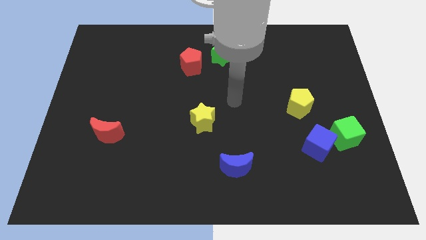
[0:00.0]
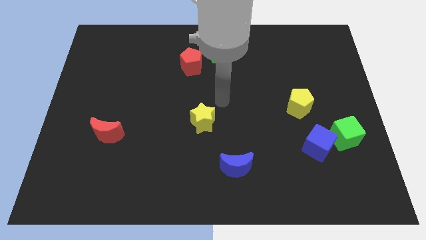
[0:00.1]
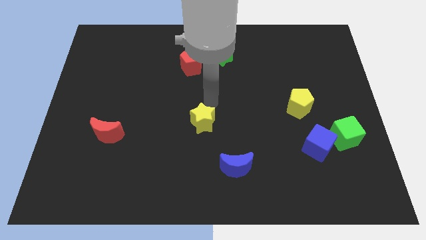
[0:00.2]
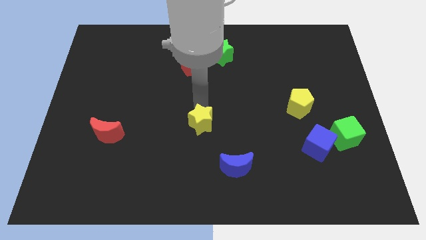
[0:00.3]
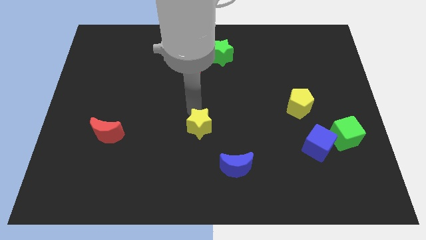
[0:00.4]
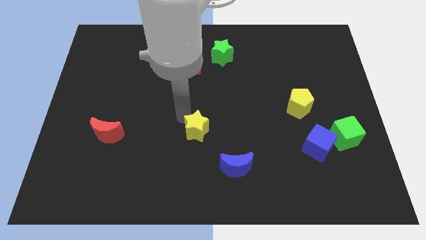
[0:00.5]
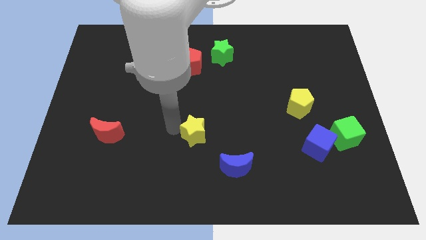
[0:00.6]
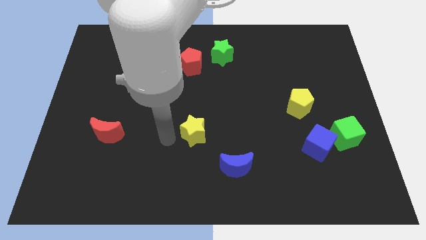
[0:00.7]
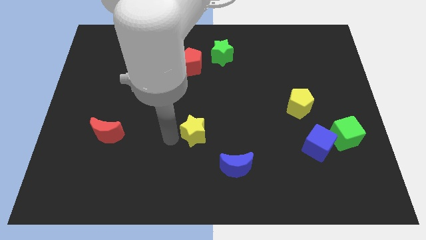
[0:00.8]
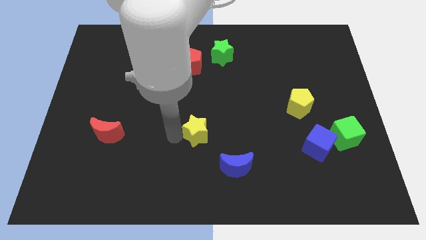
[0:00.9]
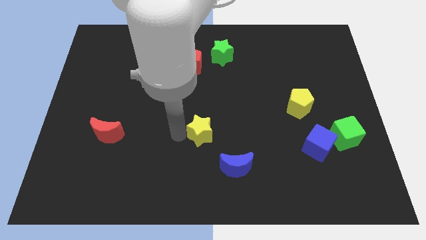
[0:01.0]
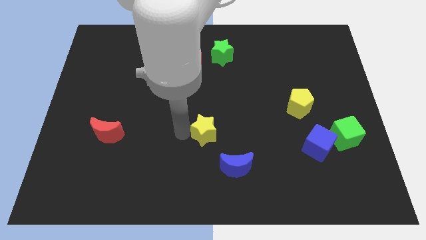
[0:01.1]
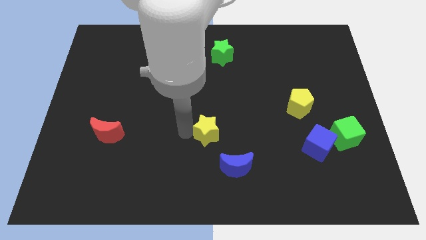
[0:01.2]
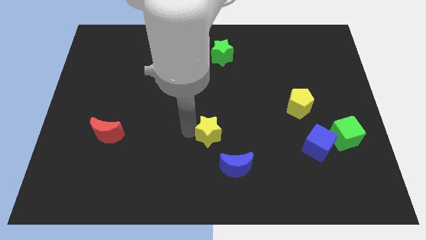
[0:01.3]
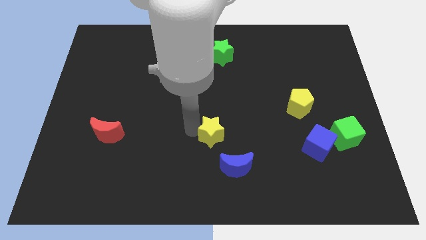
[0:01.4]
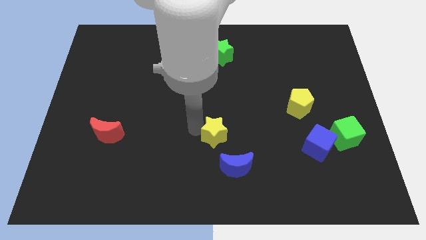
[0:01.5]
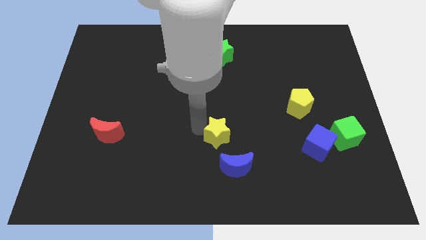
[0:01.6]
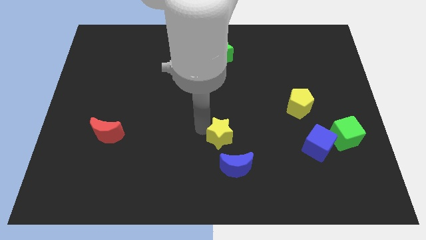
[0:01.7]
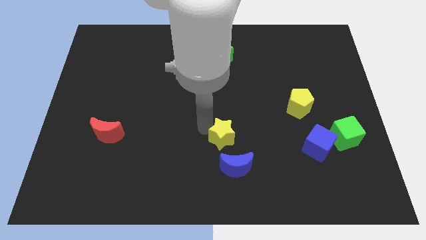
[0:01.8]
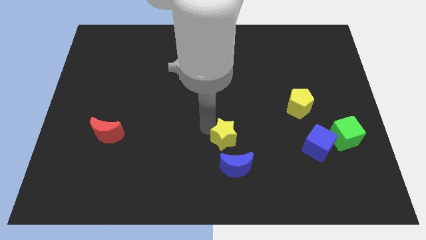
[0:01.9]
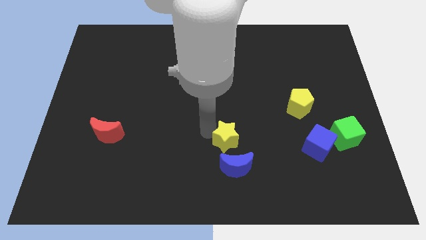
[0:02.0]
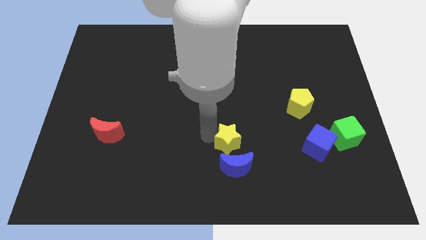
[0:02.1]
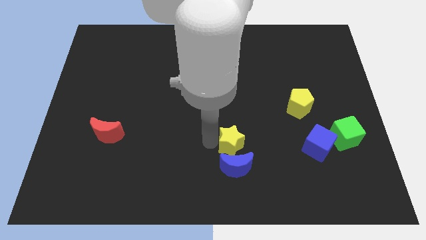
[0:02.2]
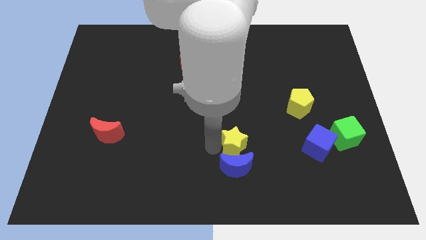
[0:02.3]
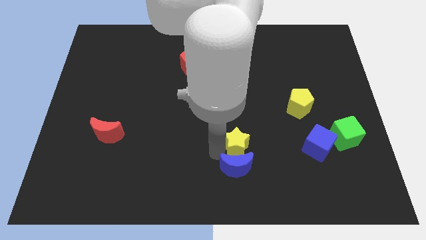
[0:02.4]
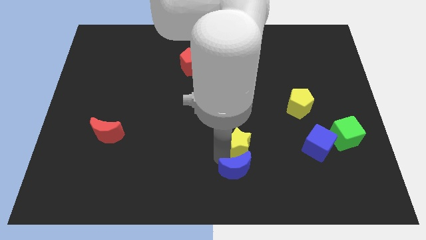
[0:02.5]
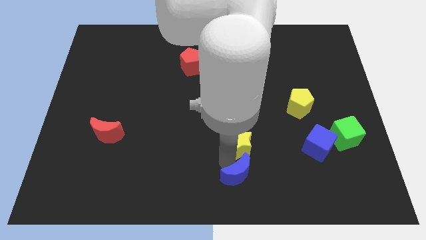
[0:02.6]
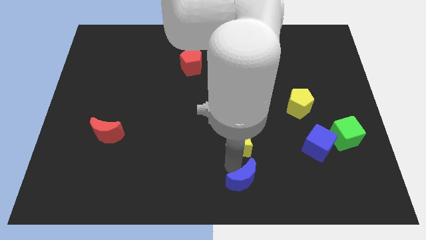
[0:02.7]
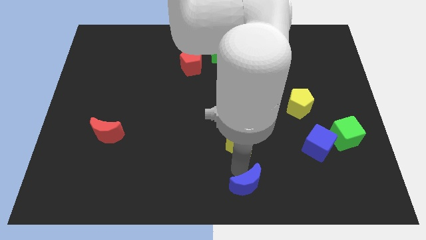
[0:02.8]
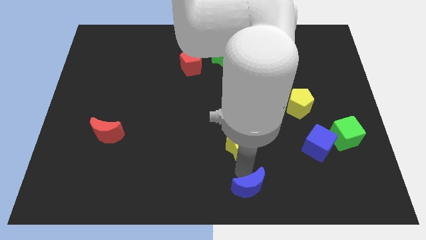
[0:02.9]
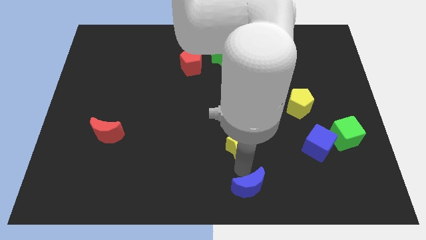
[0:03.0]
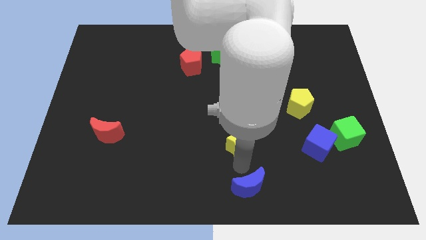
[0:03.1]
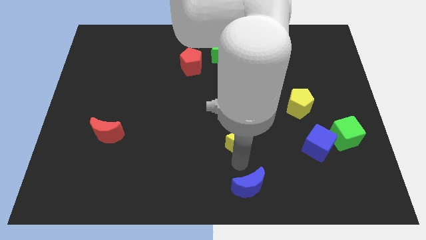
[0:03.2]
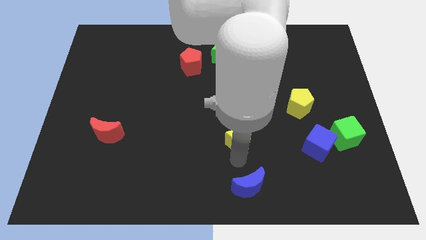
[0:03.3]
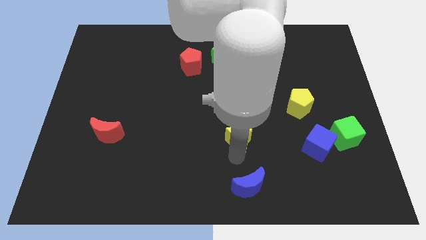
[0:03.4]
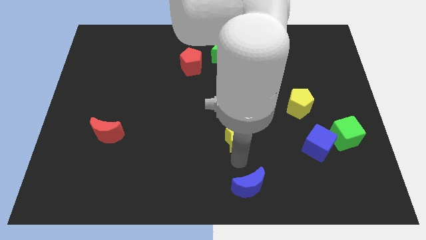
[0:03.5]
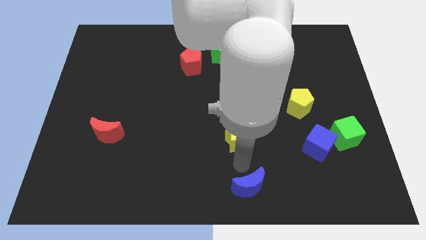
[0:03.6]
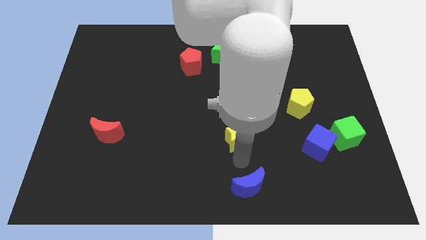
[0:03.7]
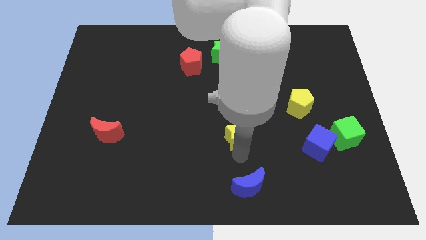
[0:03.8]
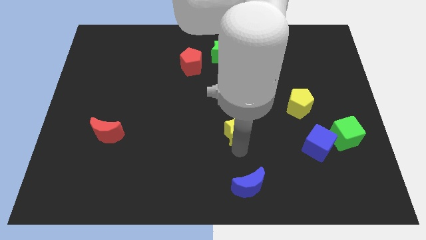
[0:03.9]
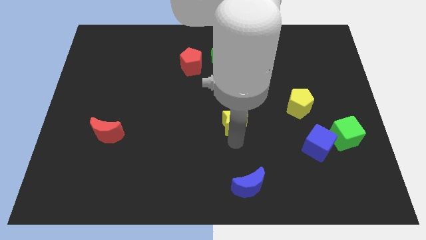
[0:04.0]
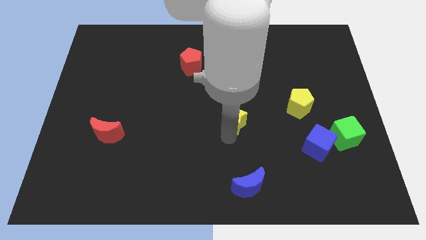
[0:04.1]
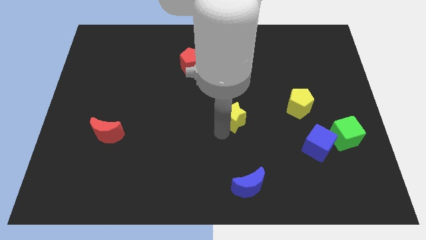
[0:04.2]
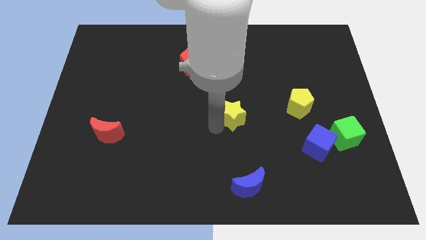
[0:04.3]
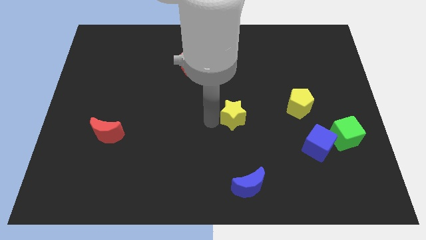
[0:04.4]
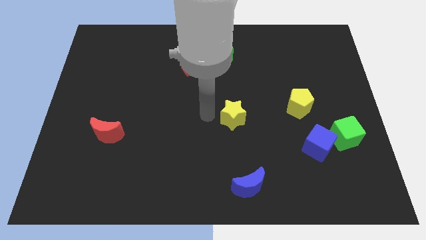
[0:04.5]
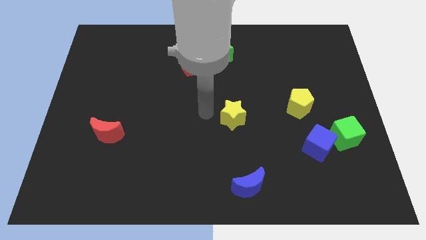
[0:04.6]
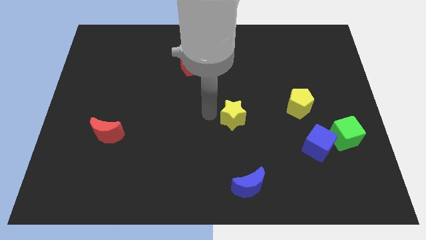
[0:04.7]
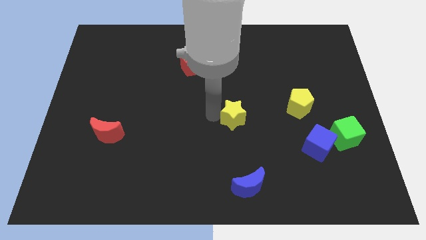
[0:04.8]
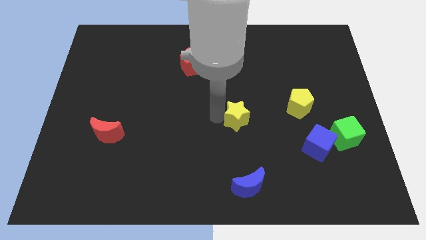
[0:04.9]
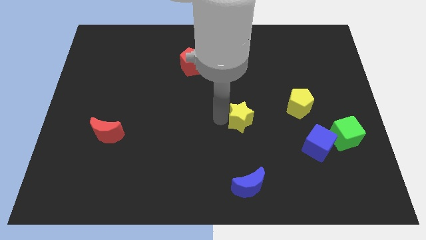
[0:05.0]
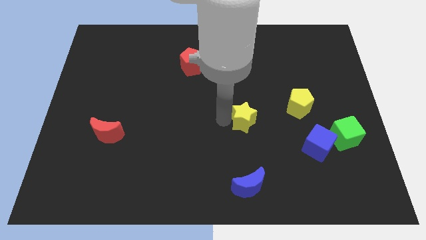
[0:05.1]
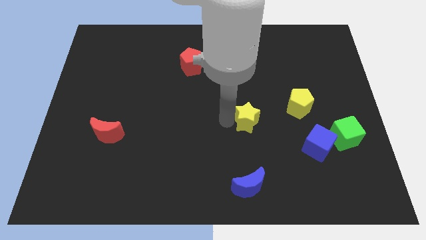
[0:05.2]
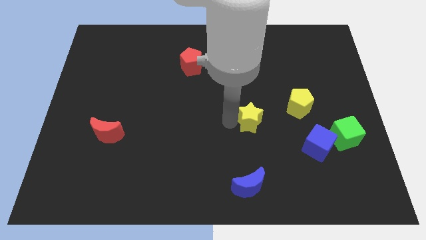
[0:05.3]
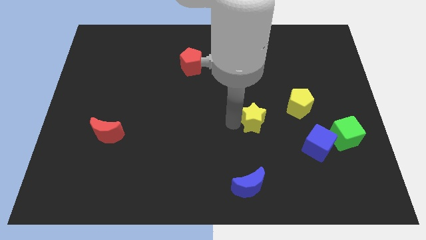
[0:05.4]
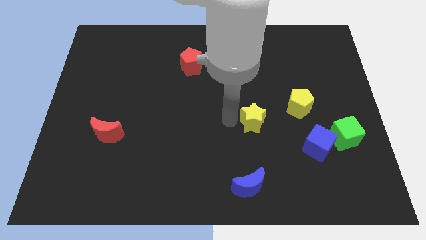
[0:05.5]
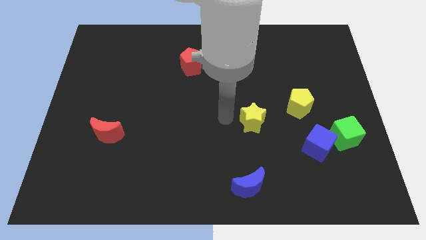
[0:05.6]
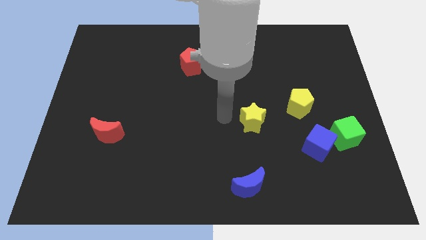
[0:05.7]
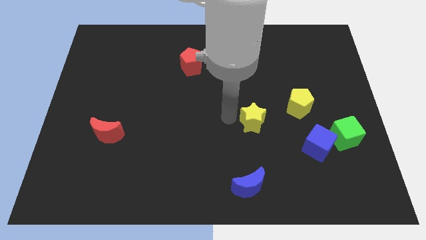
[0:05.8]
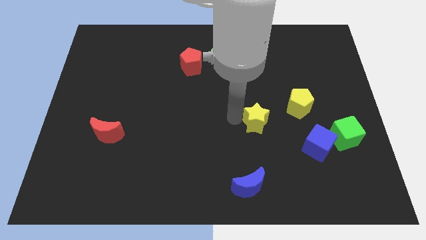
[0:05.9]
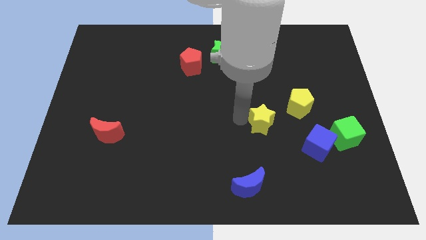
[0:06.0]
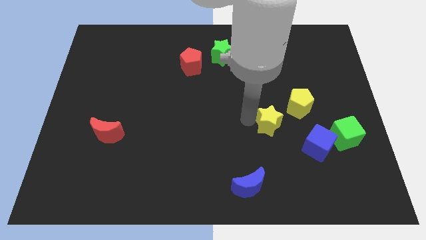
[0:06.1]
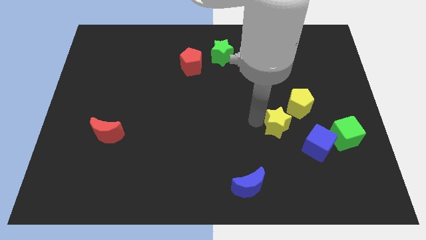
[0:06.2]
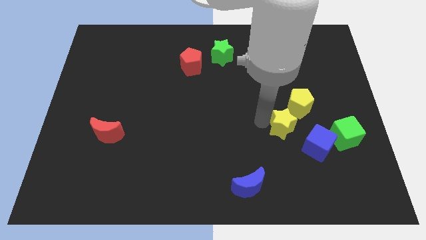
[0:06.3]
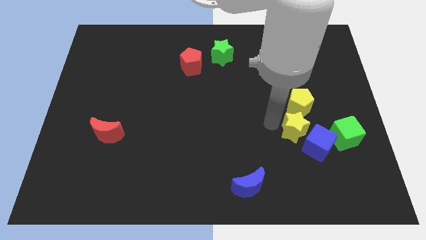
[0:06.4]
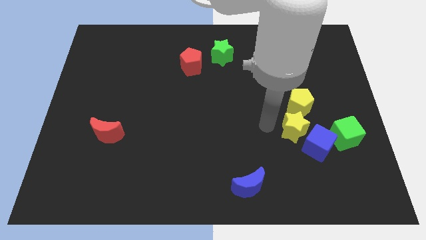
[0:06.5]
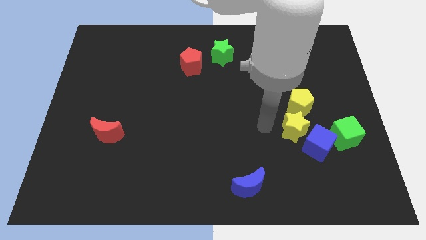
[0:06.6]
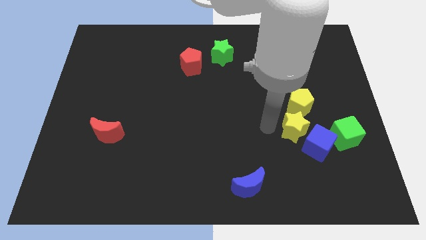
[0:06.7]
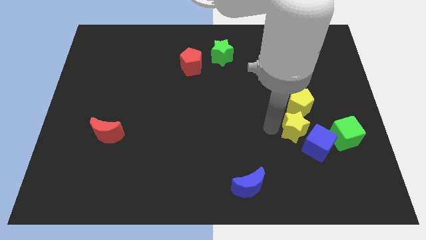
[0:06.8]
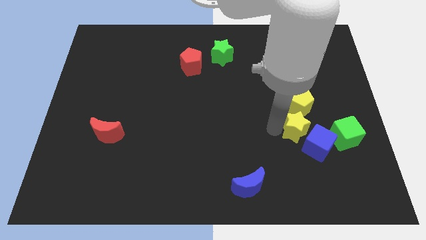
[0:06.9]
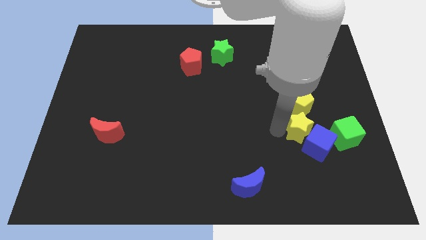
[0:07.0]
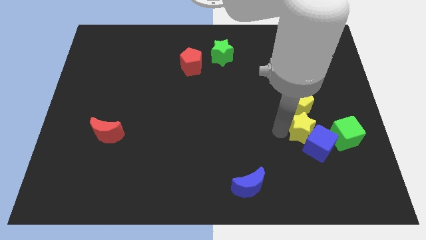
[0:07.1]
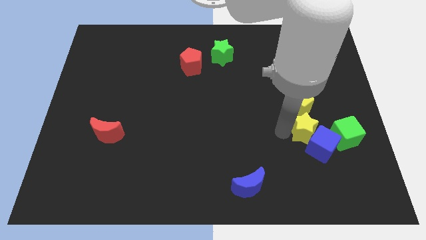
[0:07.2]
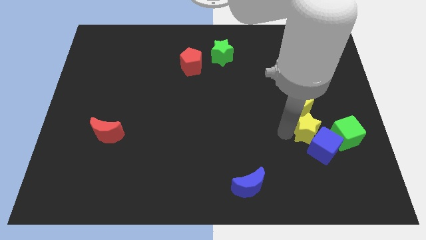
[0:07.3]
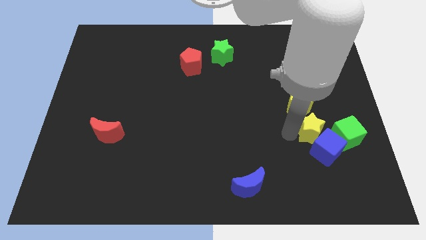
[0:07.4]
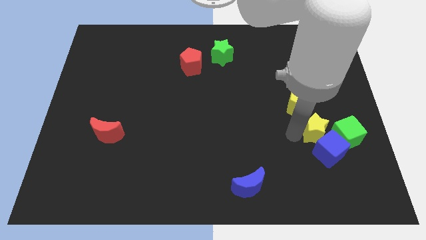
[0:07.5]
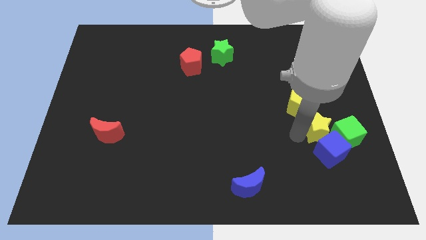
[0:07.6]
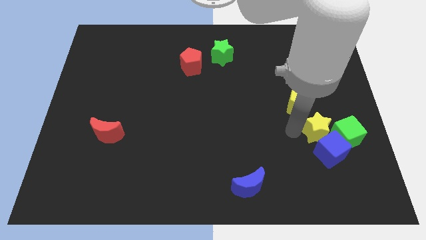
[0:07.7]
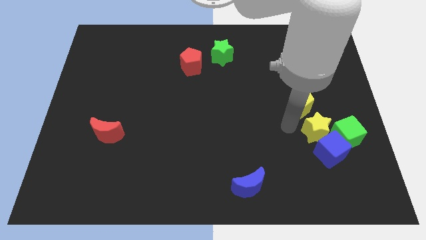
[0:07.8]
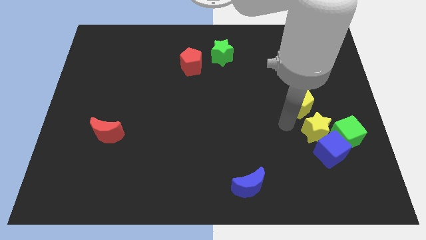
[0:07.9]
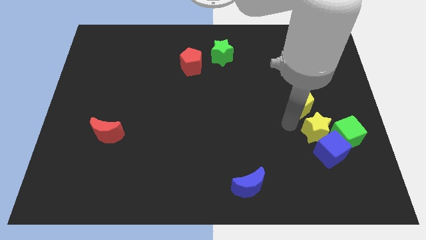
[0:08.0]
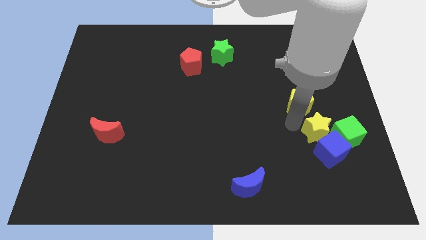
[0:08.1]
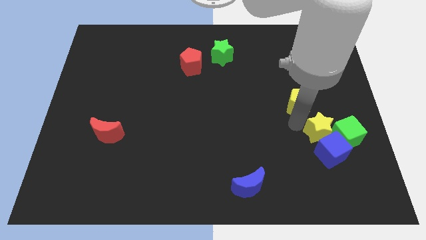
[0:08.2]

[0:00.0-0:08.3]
slide the yellow star close to the green cube
